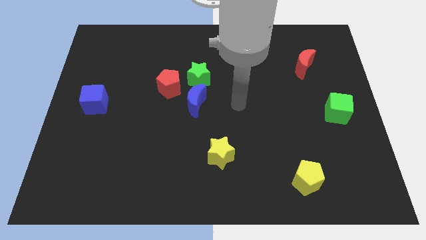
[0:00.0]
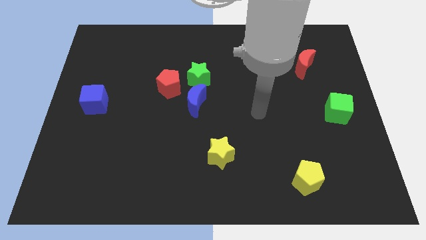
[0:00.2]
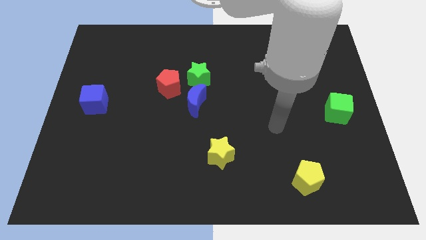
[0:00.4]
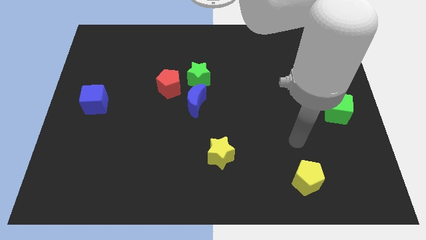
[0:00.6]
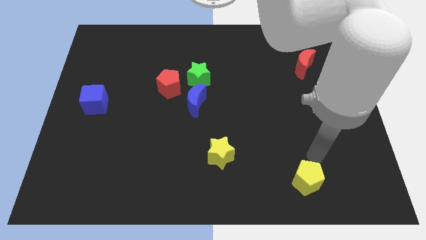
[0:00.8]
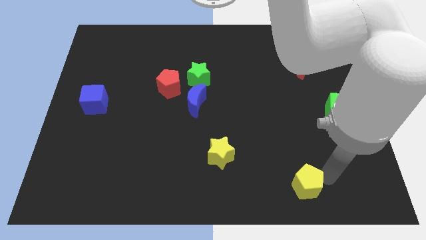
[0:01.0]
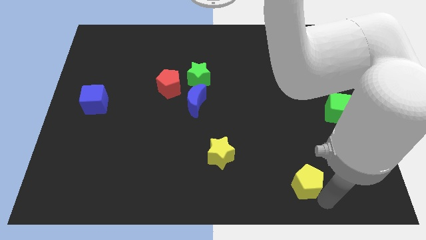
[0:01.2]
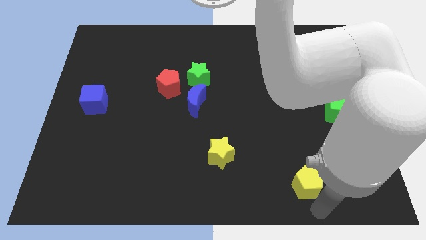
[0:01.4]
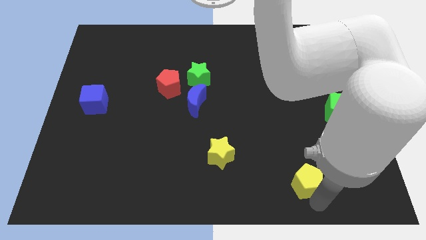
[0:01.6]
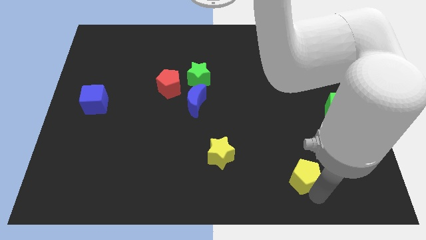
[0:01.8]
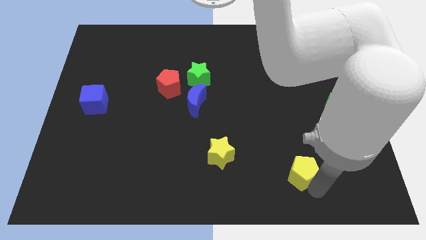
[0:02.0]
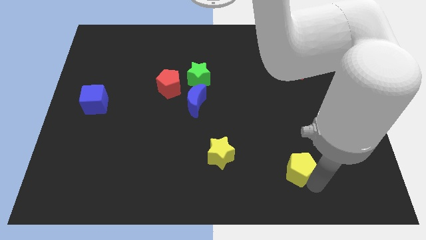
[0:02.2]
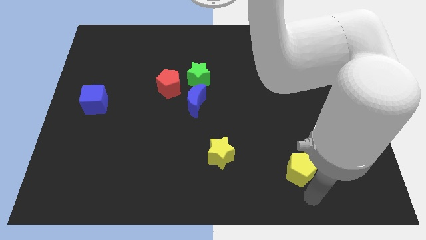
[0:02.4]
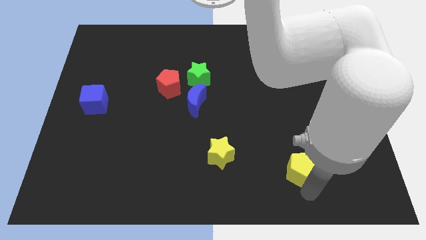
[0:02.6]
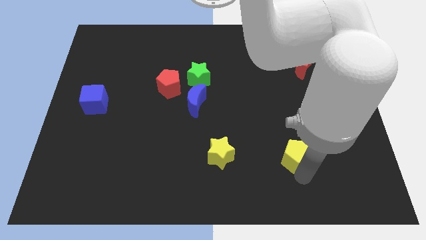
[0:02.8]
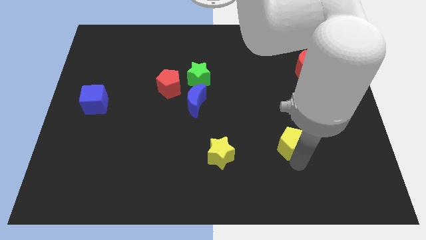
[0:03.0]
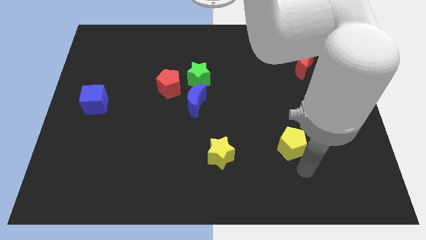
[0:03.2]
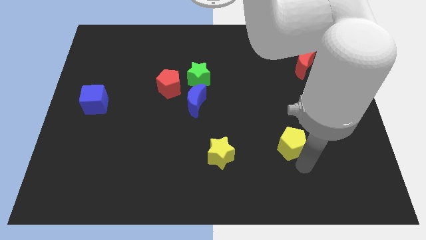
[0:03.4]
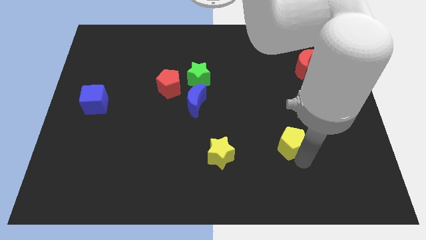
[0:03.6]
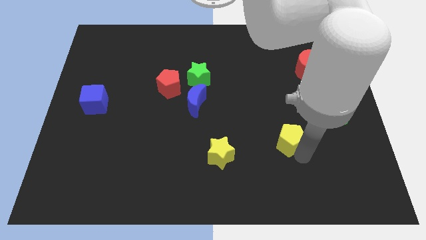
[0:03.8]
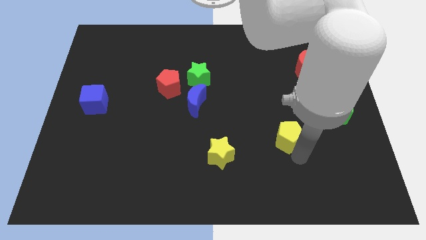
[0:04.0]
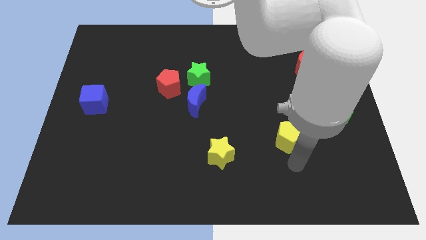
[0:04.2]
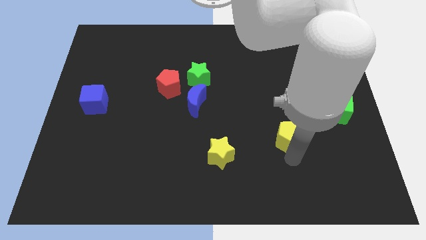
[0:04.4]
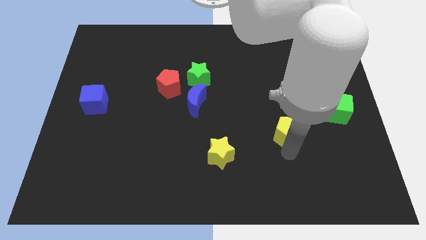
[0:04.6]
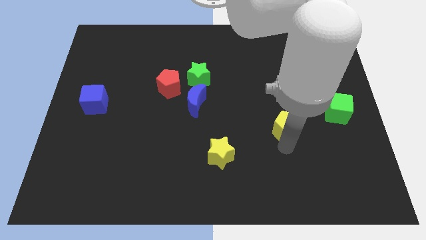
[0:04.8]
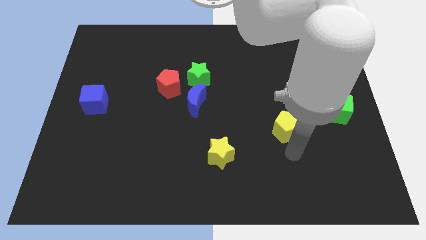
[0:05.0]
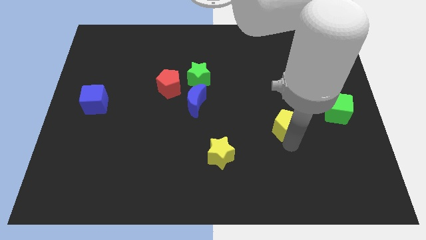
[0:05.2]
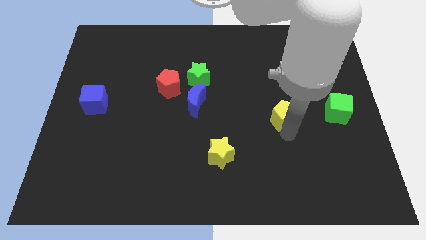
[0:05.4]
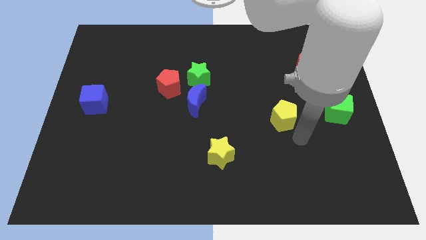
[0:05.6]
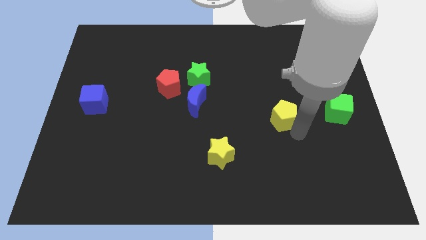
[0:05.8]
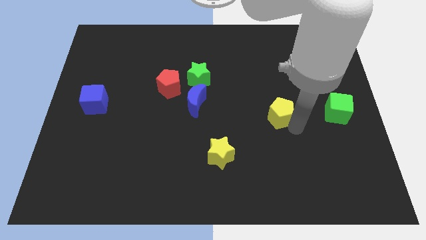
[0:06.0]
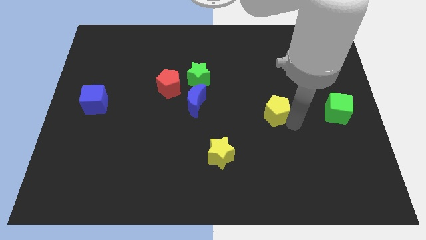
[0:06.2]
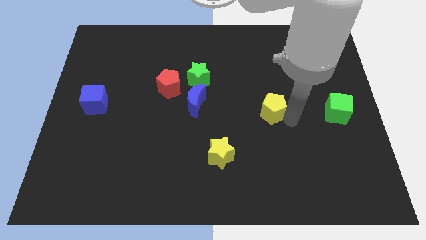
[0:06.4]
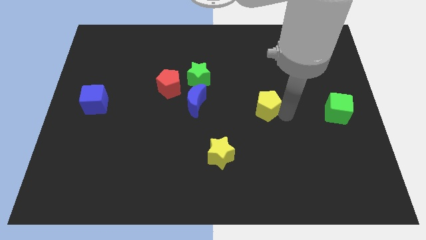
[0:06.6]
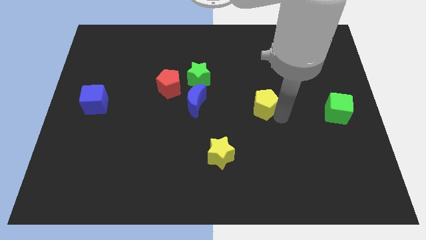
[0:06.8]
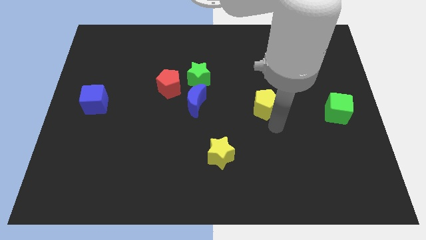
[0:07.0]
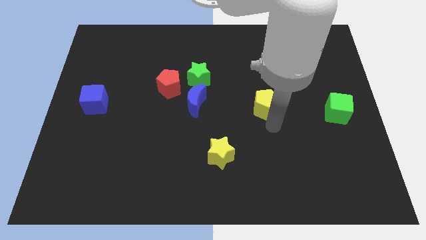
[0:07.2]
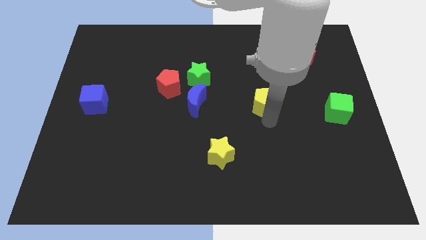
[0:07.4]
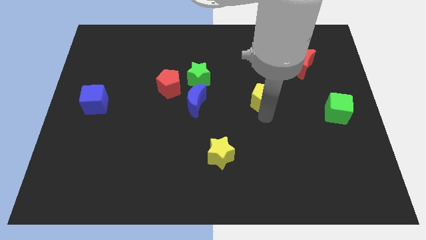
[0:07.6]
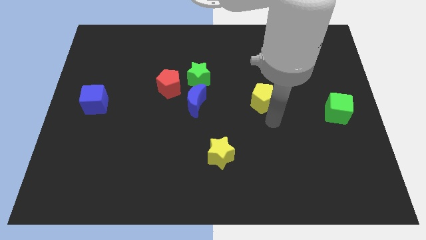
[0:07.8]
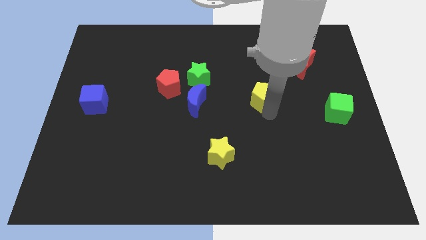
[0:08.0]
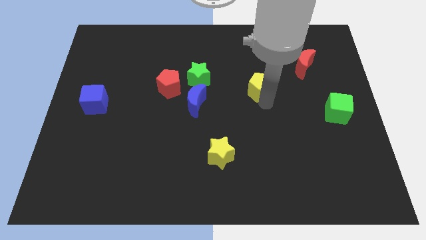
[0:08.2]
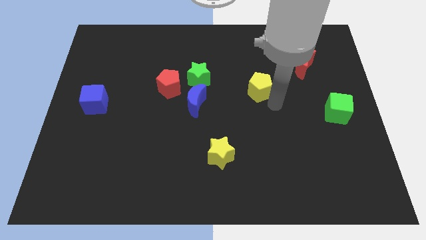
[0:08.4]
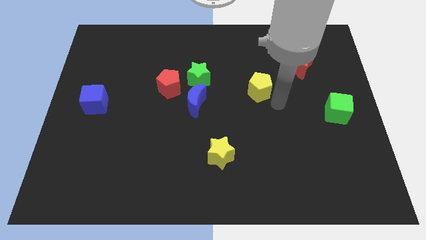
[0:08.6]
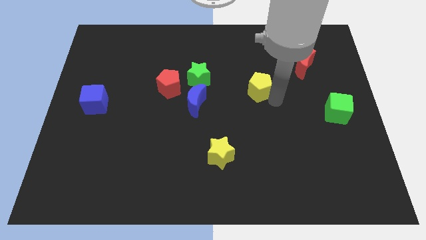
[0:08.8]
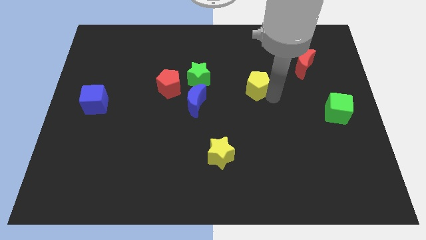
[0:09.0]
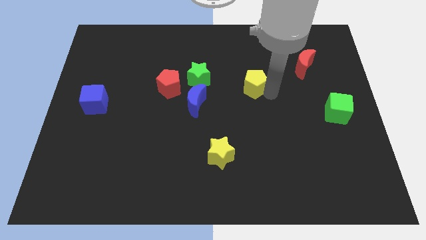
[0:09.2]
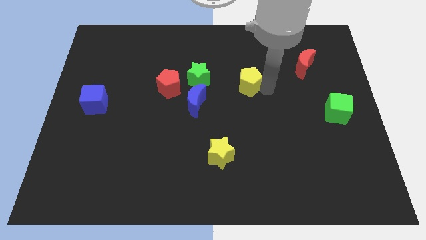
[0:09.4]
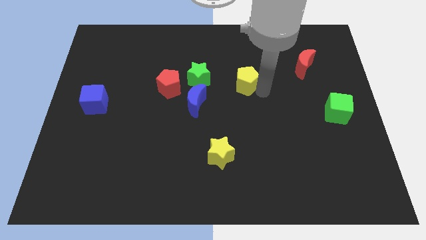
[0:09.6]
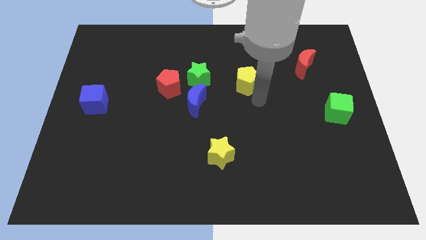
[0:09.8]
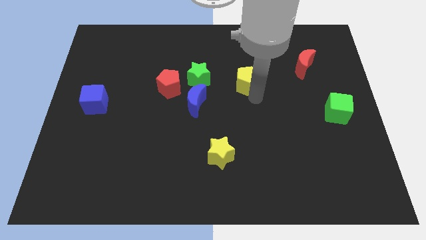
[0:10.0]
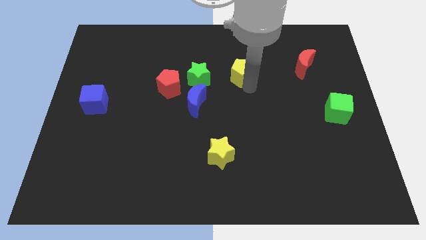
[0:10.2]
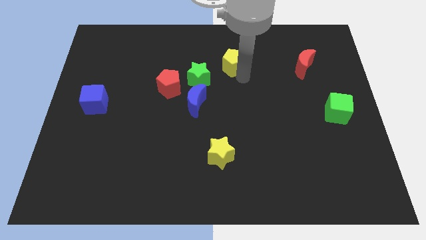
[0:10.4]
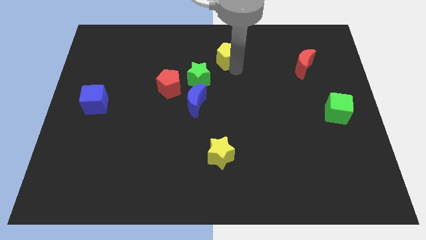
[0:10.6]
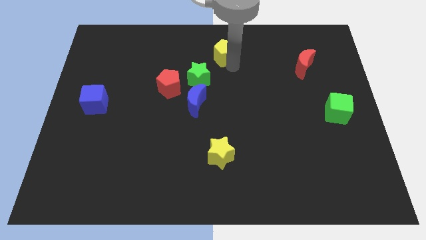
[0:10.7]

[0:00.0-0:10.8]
move the yellow pentagon to the top side

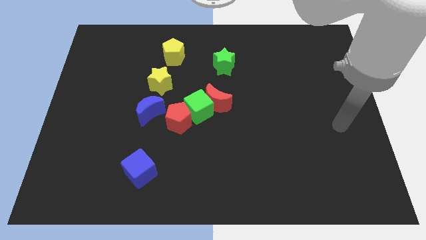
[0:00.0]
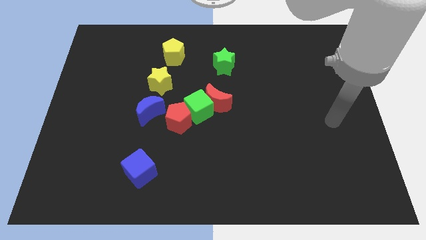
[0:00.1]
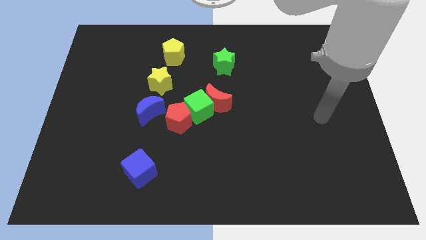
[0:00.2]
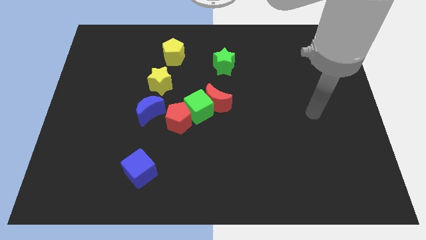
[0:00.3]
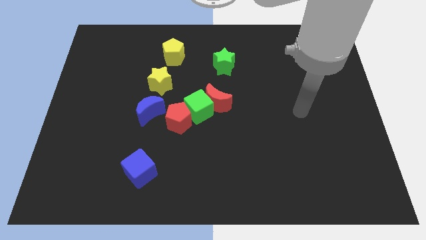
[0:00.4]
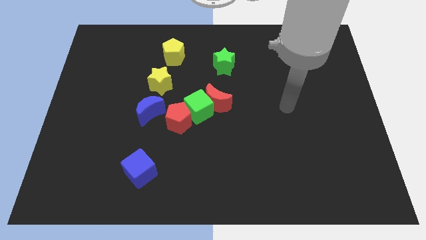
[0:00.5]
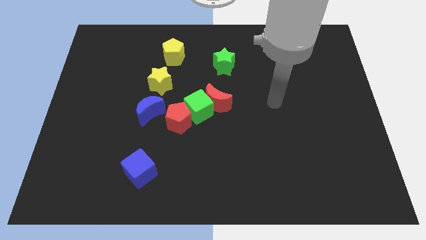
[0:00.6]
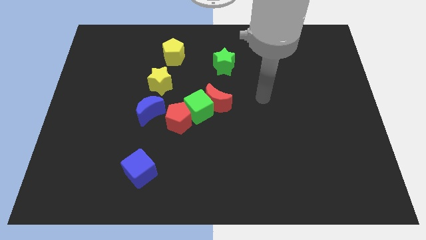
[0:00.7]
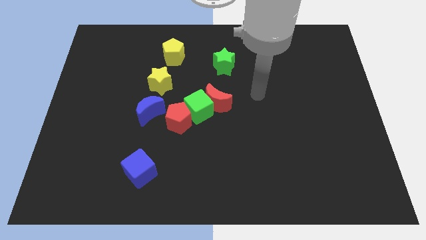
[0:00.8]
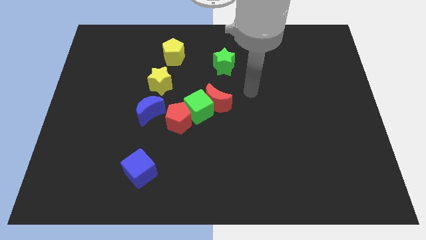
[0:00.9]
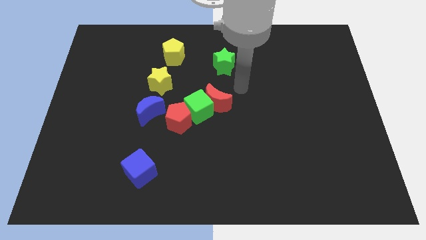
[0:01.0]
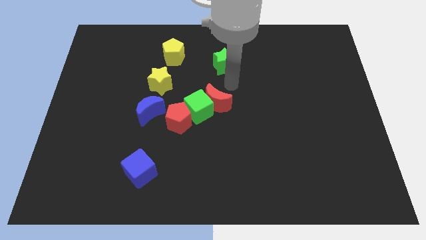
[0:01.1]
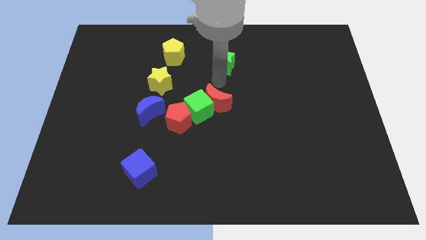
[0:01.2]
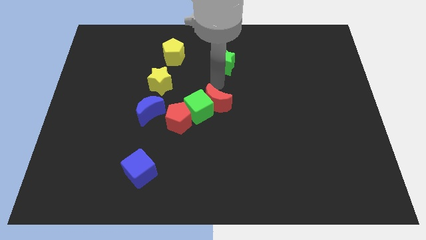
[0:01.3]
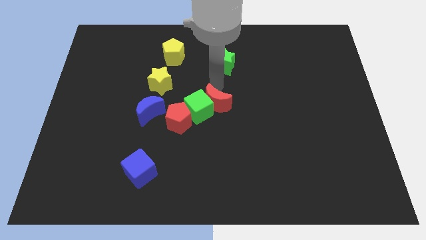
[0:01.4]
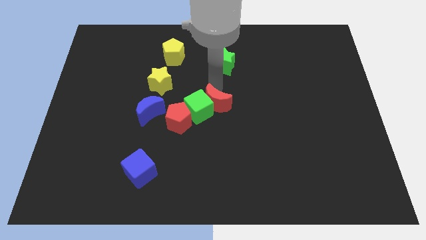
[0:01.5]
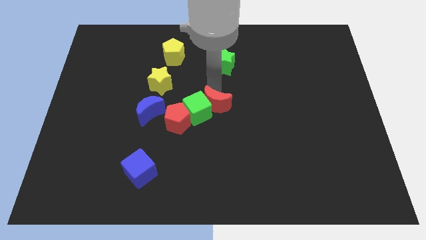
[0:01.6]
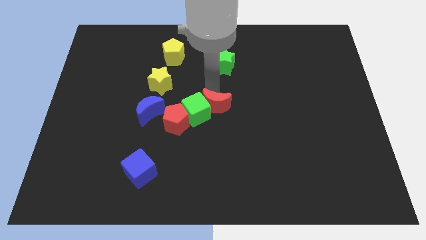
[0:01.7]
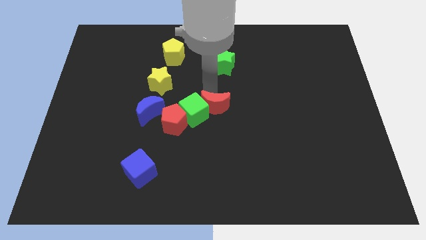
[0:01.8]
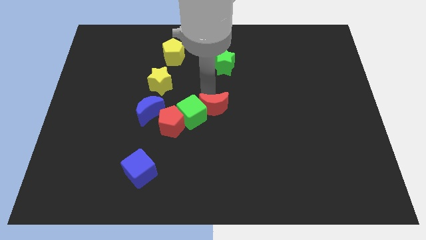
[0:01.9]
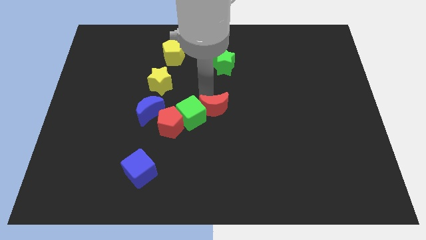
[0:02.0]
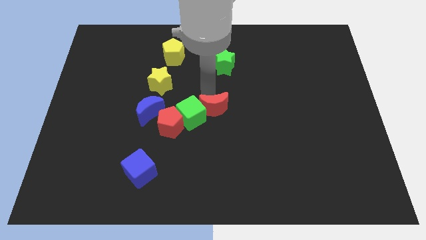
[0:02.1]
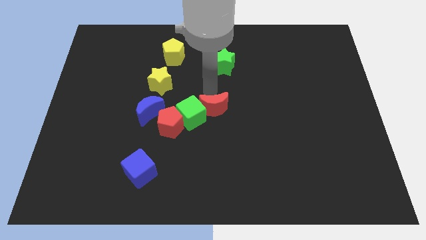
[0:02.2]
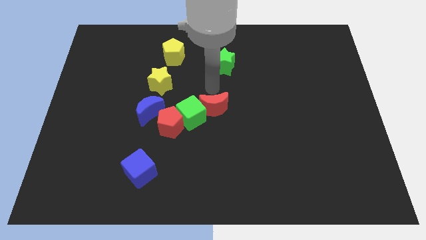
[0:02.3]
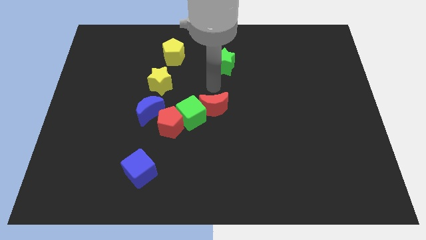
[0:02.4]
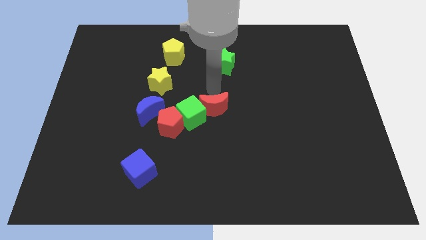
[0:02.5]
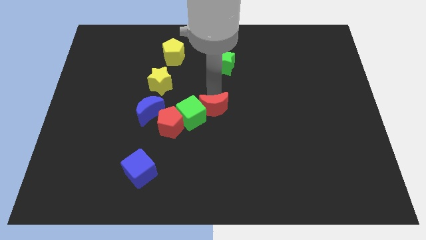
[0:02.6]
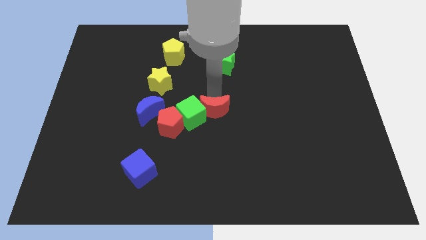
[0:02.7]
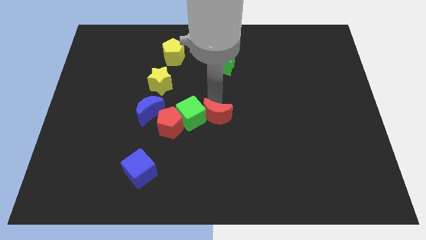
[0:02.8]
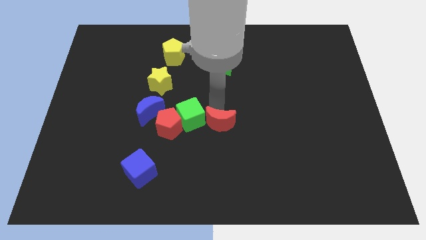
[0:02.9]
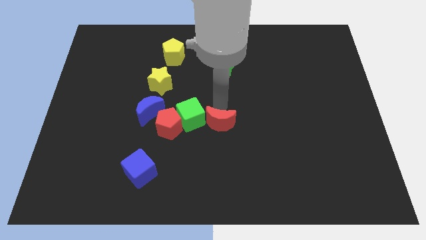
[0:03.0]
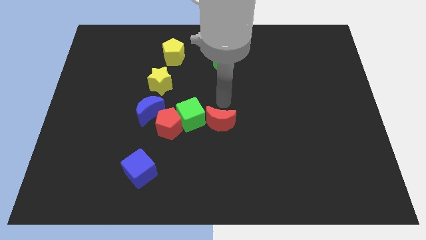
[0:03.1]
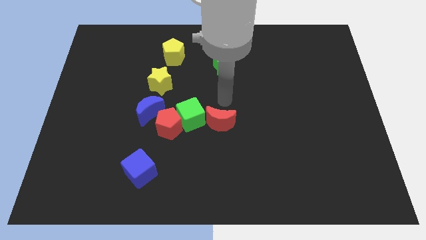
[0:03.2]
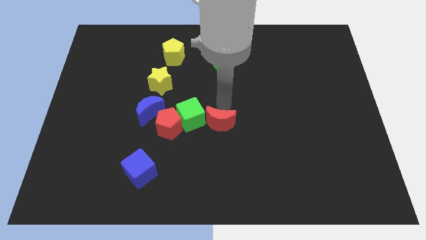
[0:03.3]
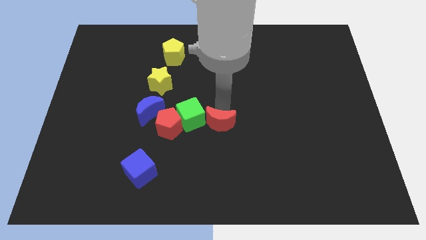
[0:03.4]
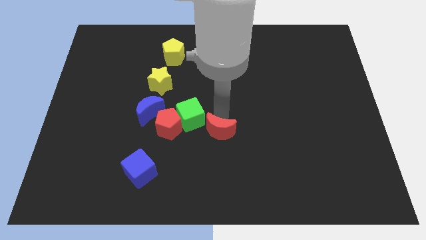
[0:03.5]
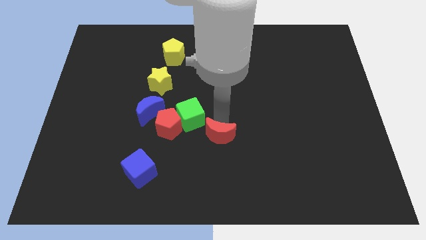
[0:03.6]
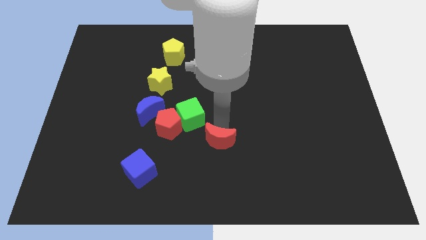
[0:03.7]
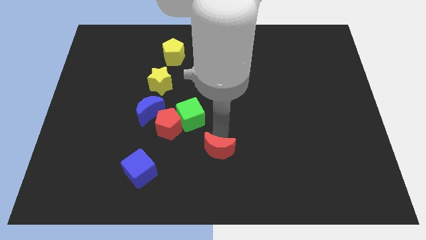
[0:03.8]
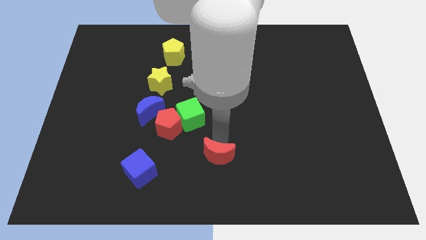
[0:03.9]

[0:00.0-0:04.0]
move the red moon to the bottom side
